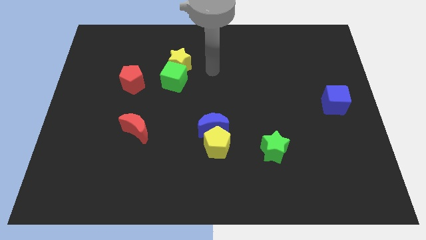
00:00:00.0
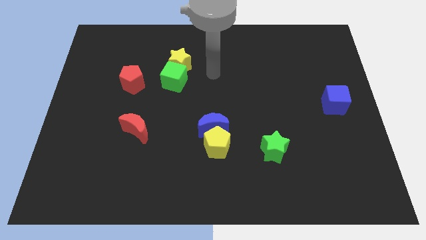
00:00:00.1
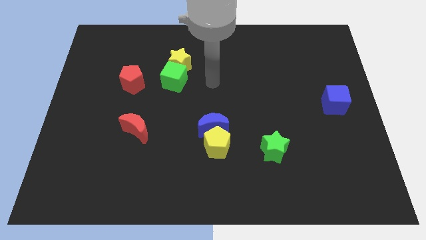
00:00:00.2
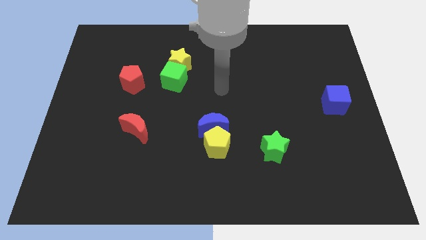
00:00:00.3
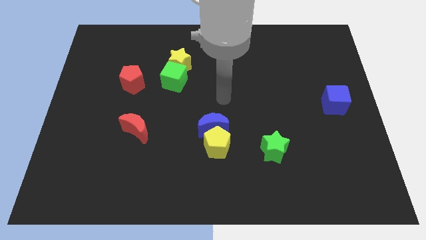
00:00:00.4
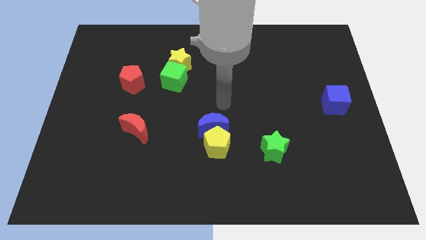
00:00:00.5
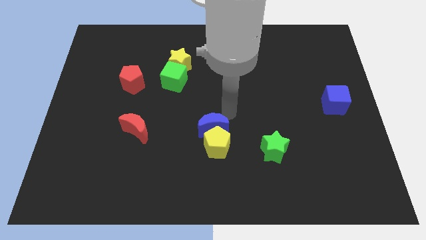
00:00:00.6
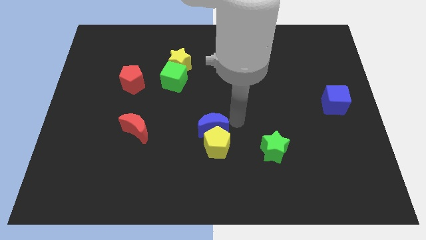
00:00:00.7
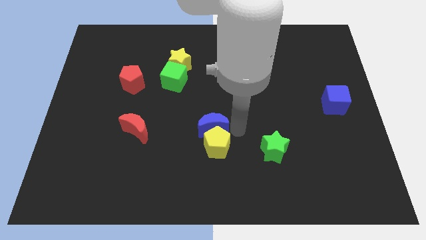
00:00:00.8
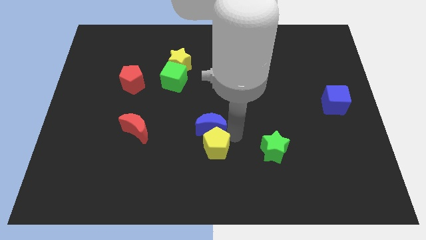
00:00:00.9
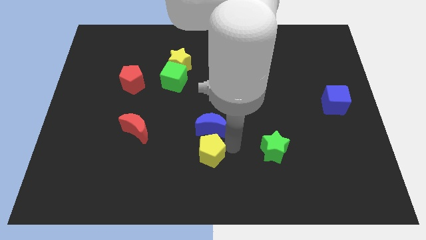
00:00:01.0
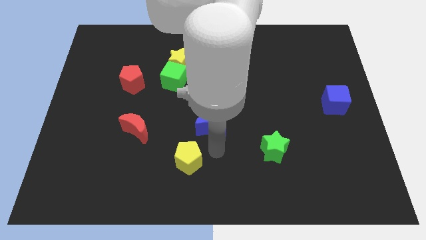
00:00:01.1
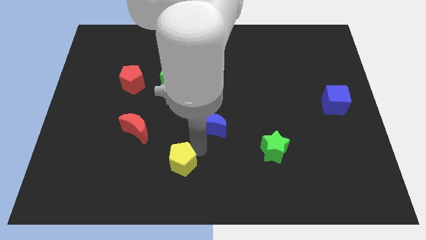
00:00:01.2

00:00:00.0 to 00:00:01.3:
separate the blue moon from the yellow pentagon

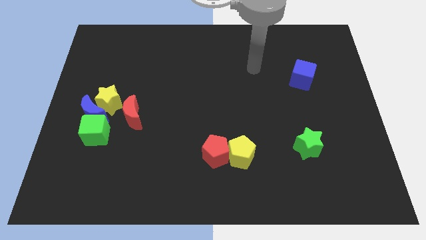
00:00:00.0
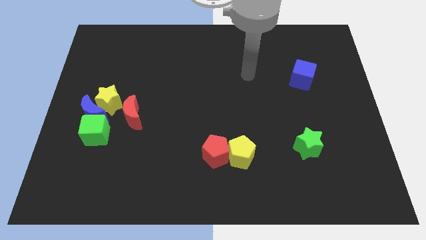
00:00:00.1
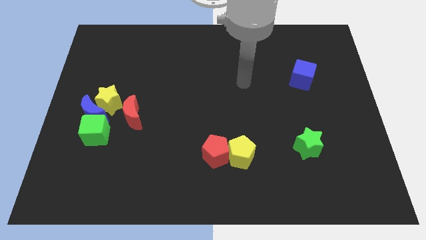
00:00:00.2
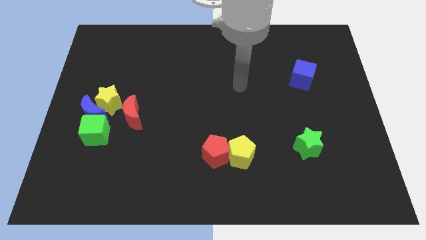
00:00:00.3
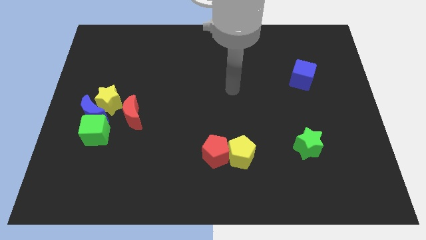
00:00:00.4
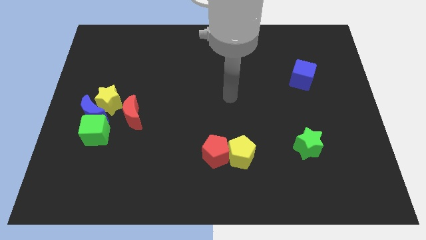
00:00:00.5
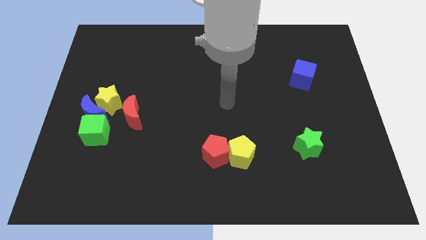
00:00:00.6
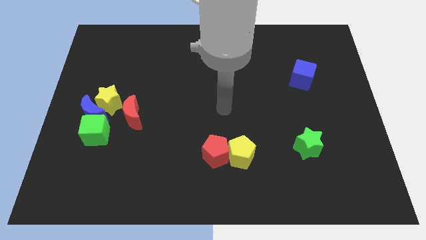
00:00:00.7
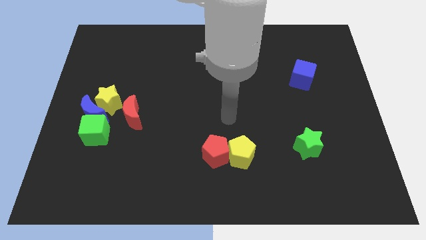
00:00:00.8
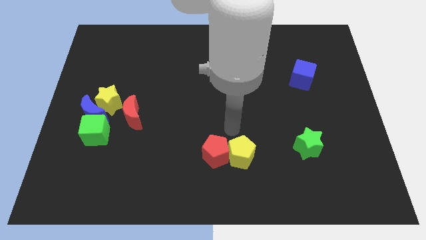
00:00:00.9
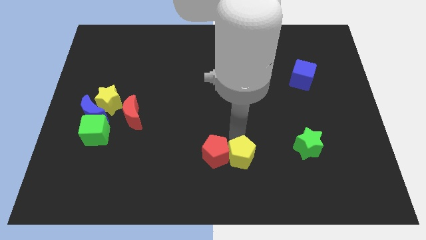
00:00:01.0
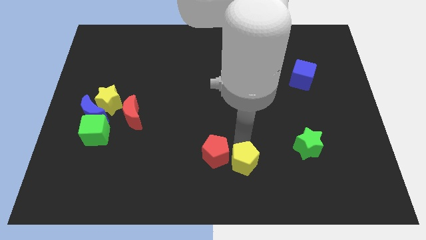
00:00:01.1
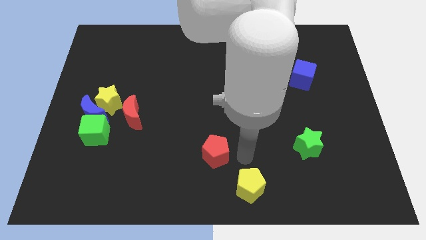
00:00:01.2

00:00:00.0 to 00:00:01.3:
pull the red pentagon apart from the yellow pentagon

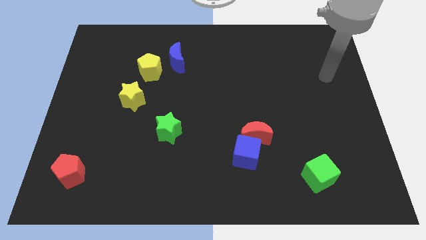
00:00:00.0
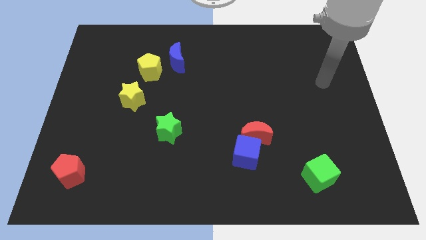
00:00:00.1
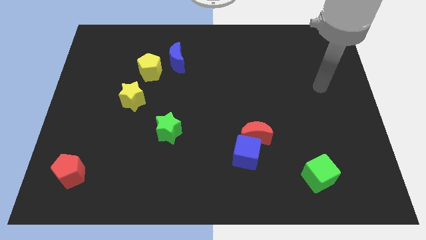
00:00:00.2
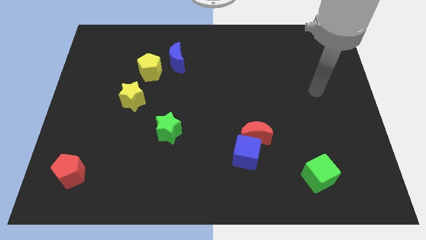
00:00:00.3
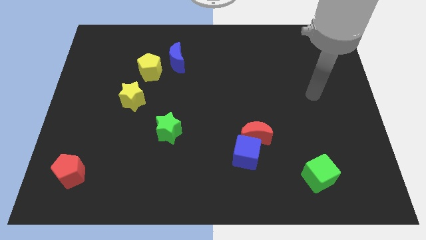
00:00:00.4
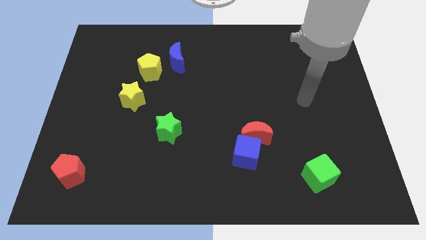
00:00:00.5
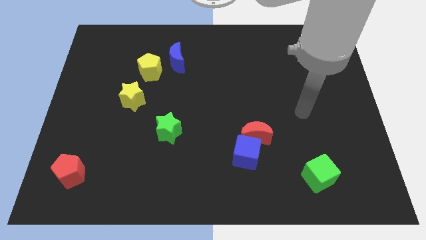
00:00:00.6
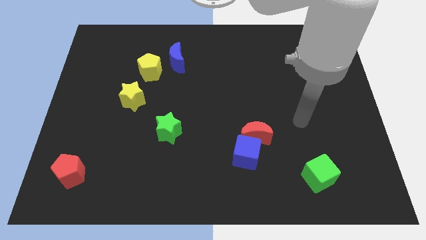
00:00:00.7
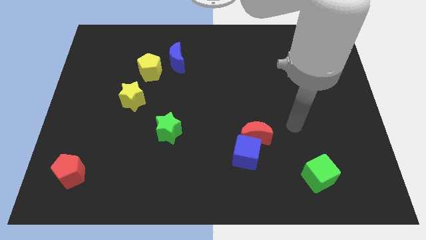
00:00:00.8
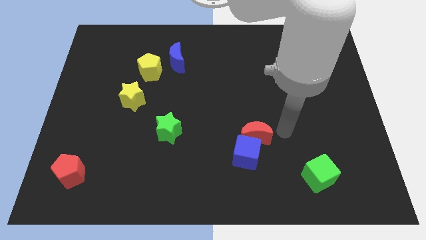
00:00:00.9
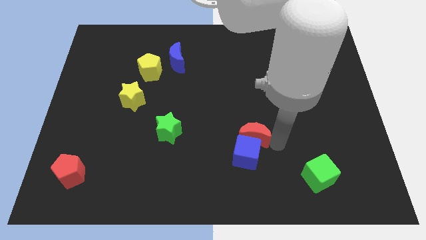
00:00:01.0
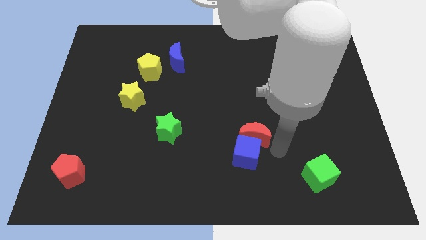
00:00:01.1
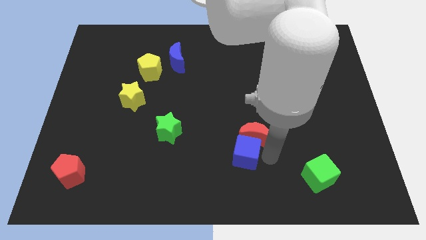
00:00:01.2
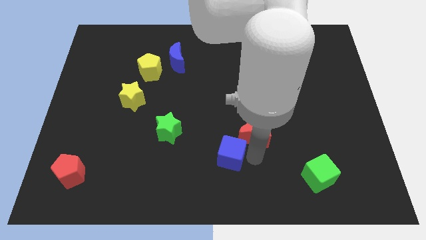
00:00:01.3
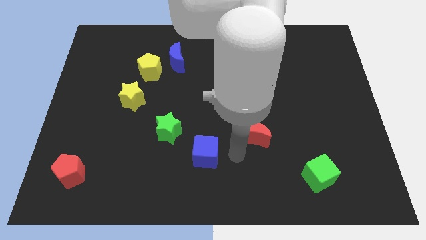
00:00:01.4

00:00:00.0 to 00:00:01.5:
pull the red moon apart from the blue cube

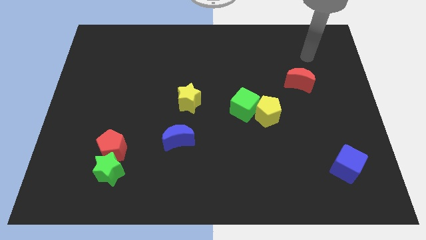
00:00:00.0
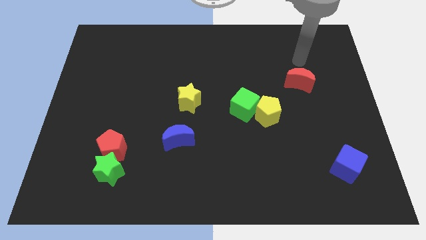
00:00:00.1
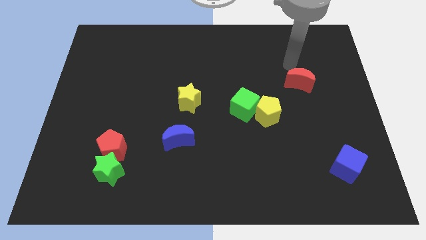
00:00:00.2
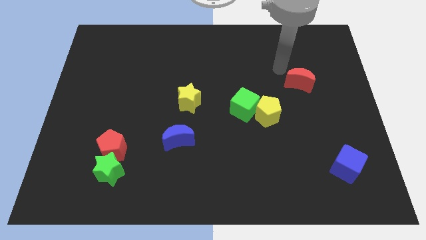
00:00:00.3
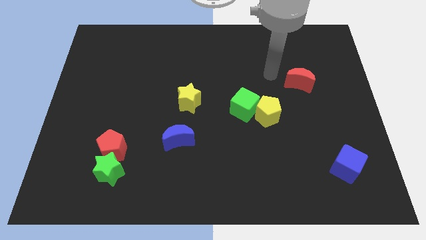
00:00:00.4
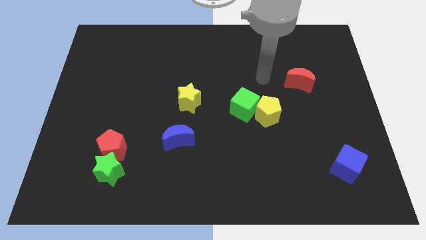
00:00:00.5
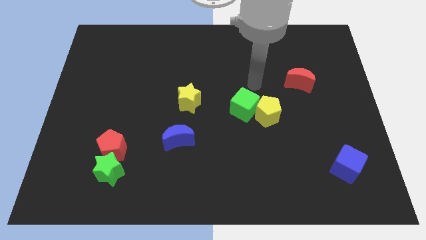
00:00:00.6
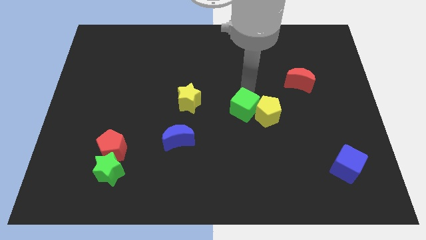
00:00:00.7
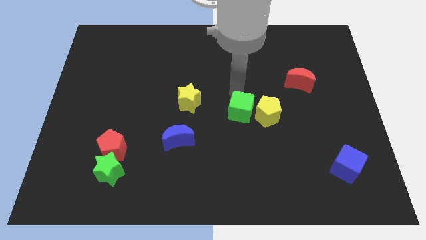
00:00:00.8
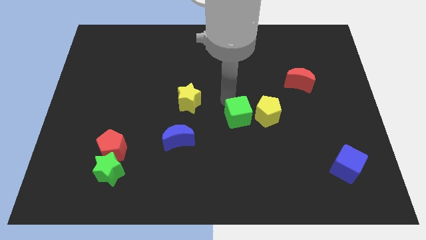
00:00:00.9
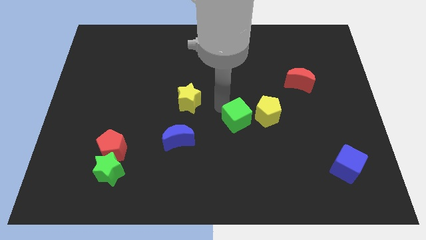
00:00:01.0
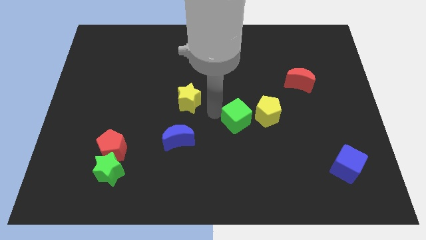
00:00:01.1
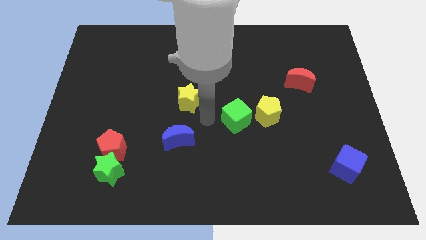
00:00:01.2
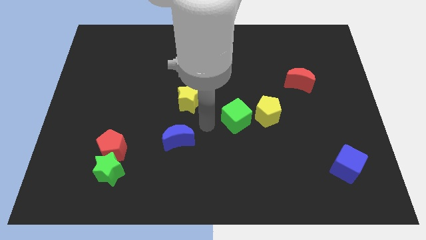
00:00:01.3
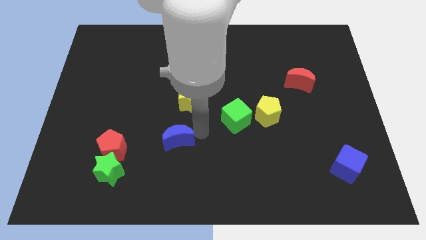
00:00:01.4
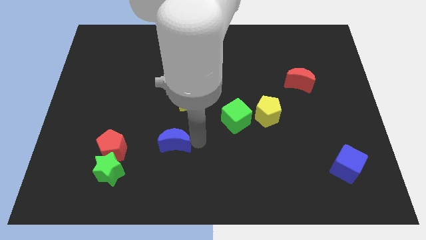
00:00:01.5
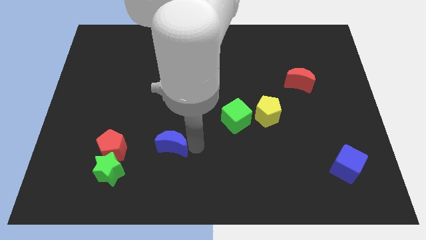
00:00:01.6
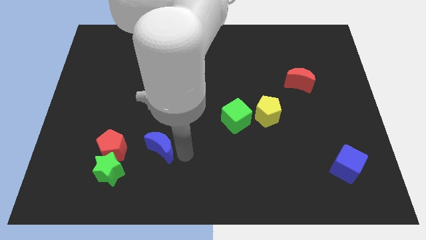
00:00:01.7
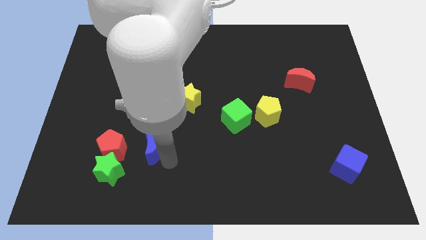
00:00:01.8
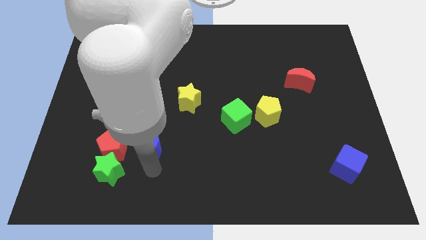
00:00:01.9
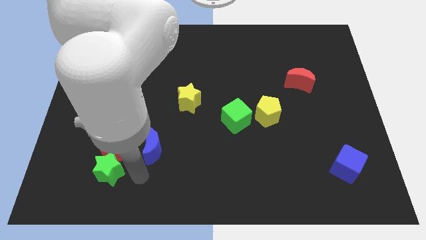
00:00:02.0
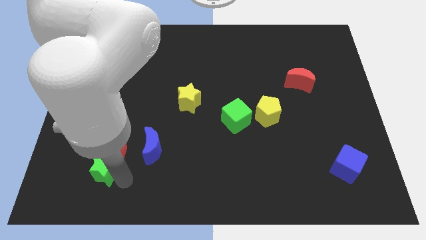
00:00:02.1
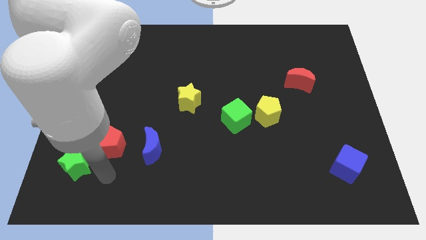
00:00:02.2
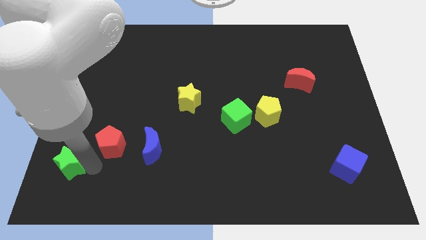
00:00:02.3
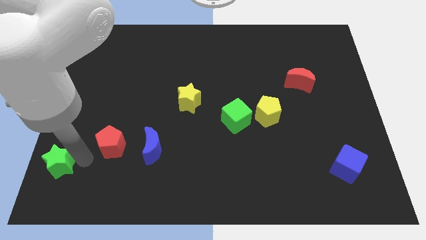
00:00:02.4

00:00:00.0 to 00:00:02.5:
pull the red pentagon apart from the green star

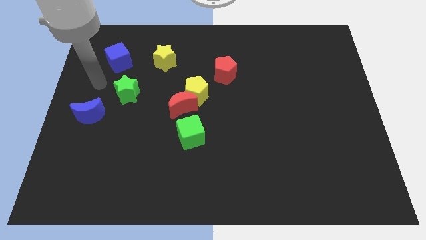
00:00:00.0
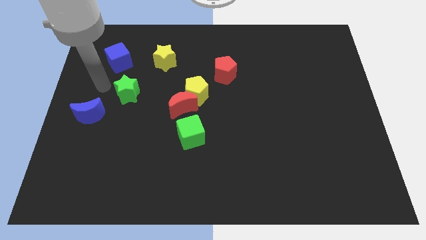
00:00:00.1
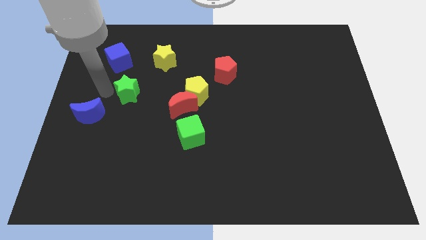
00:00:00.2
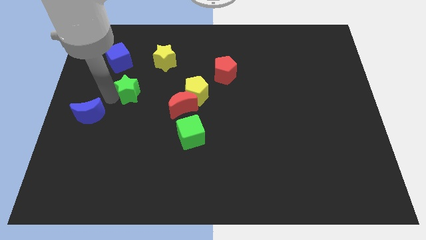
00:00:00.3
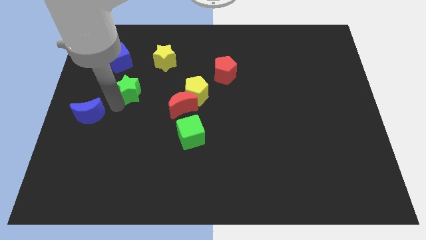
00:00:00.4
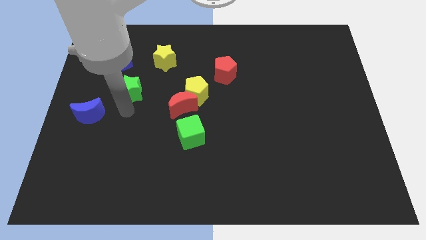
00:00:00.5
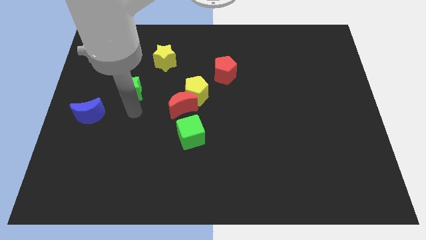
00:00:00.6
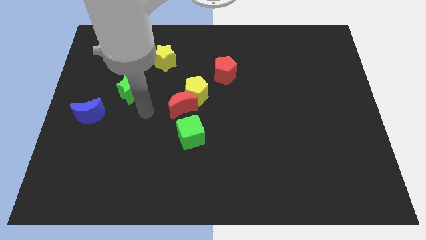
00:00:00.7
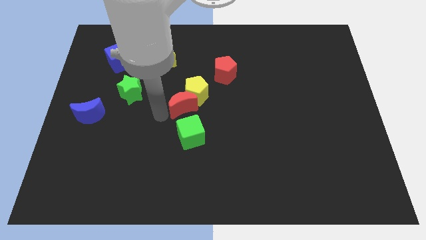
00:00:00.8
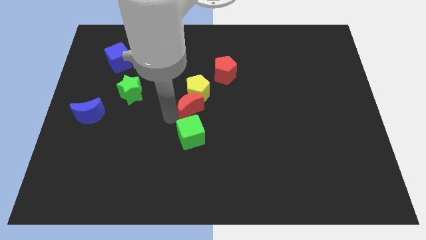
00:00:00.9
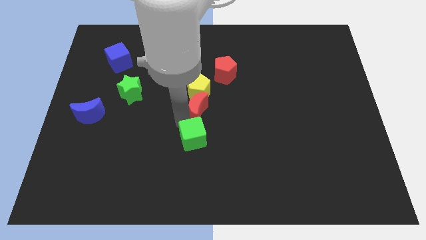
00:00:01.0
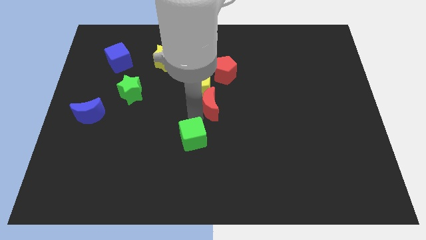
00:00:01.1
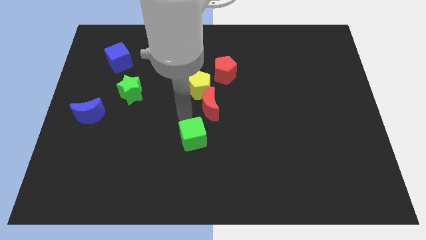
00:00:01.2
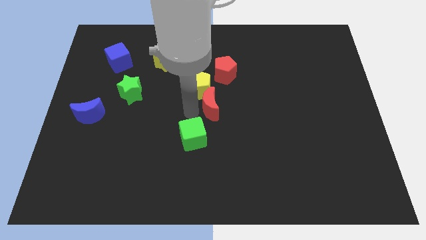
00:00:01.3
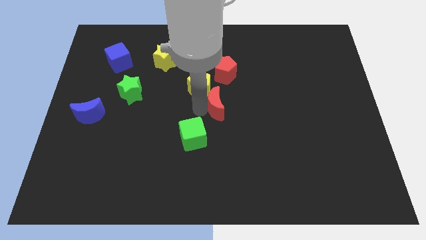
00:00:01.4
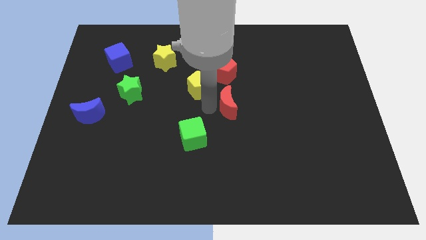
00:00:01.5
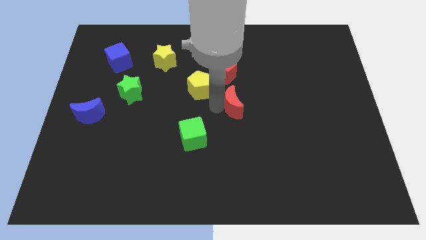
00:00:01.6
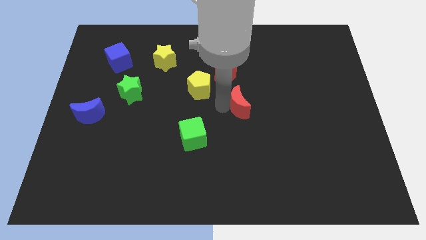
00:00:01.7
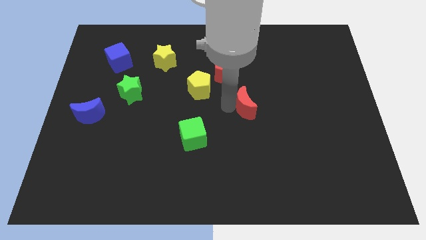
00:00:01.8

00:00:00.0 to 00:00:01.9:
separate the red moon from the yellow pentagon and green cube

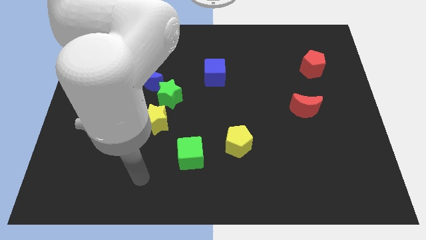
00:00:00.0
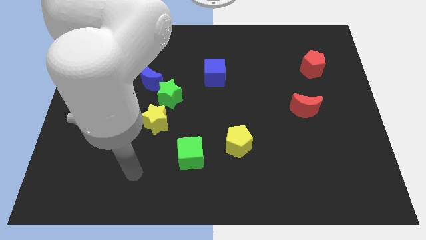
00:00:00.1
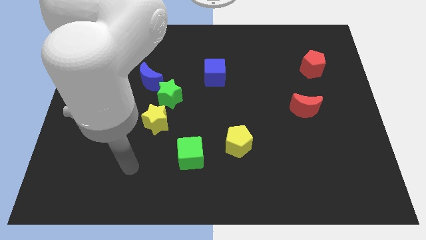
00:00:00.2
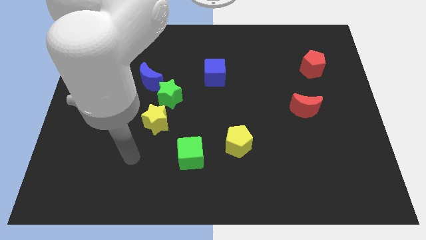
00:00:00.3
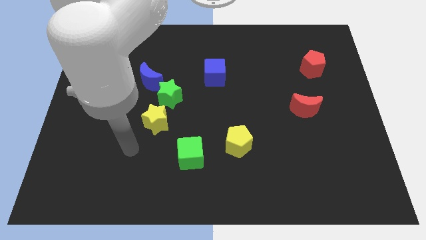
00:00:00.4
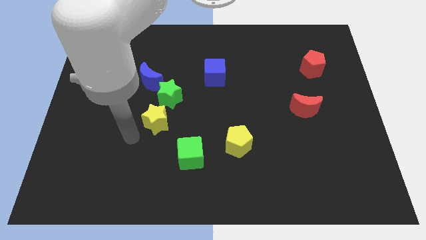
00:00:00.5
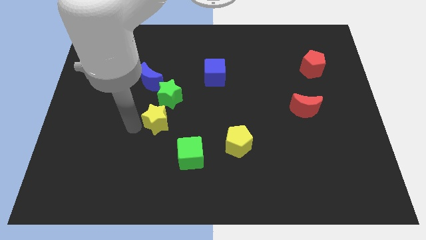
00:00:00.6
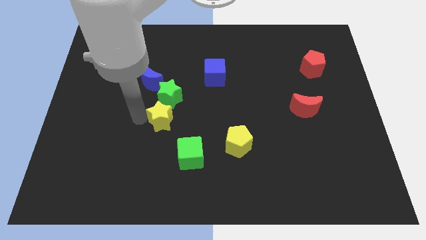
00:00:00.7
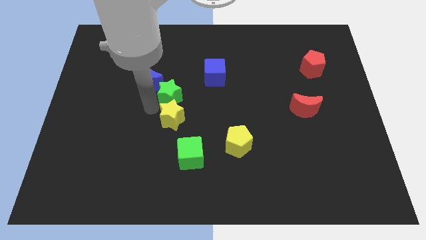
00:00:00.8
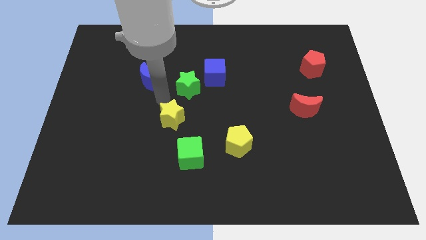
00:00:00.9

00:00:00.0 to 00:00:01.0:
pull the blue moon apart from the green star
